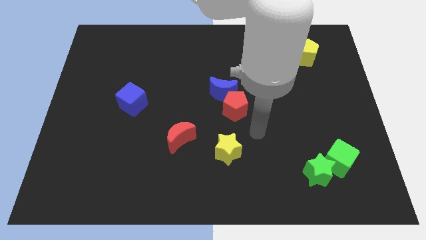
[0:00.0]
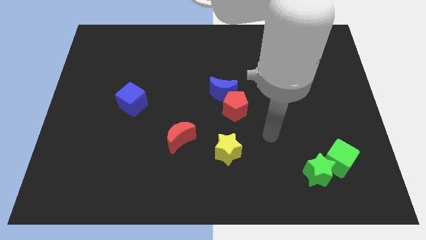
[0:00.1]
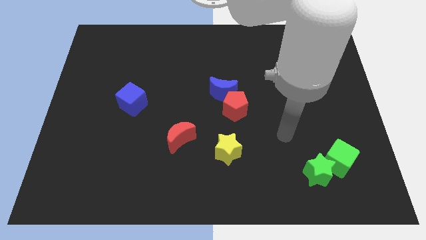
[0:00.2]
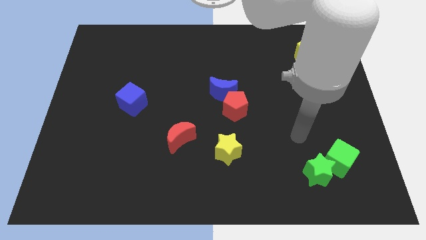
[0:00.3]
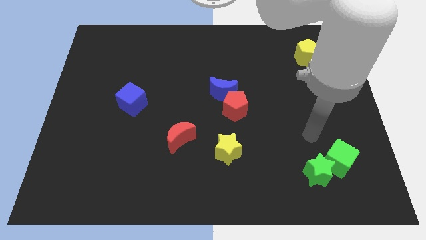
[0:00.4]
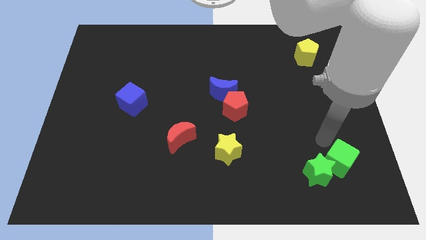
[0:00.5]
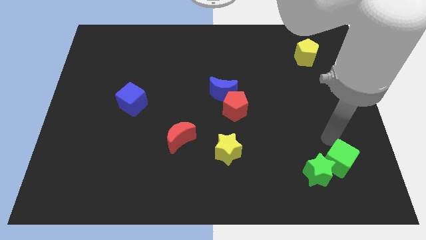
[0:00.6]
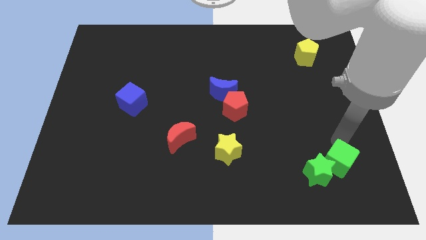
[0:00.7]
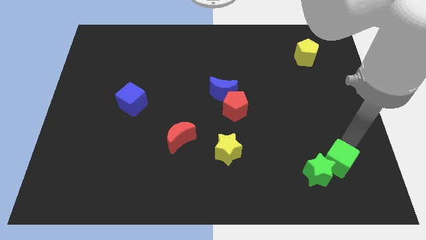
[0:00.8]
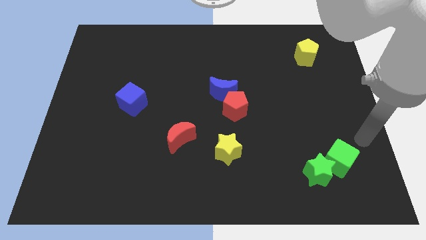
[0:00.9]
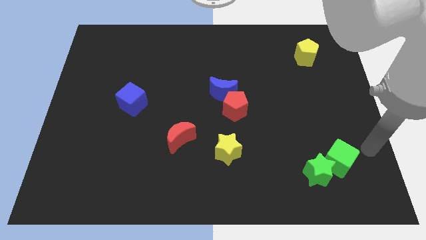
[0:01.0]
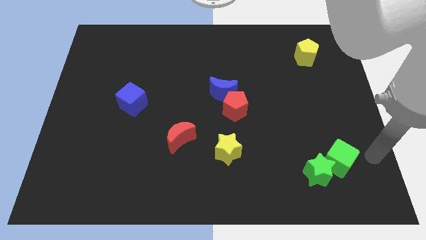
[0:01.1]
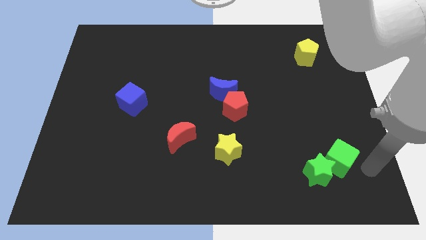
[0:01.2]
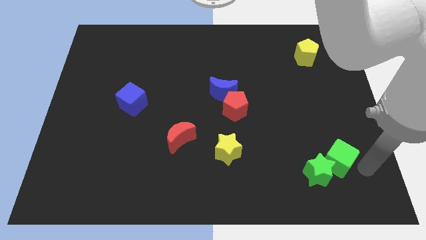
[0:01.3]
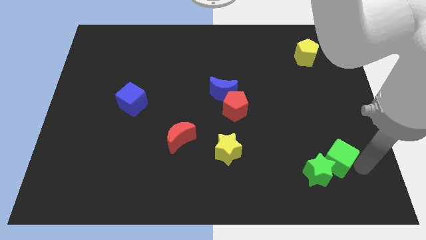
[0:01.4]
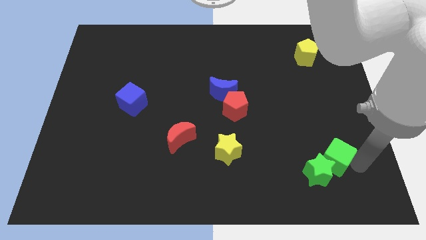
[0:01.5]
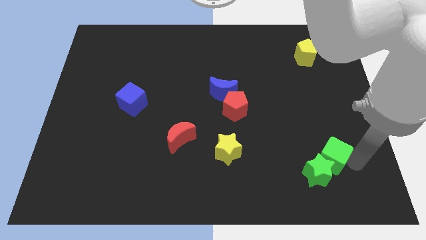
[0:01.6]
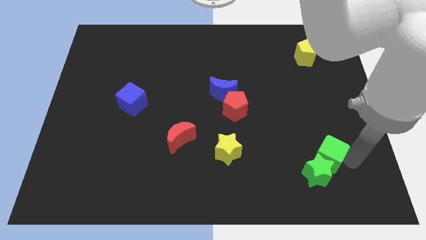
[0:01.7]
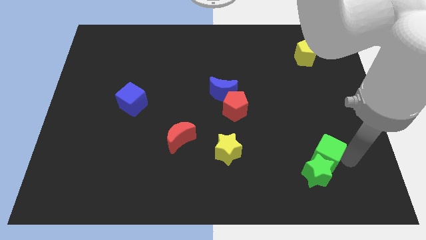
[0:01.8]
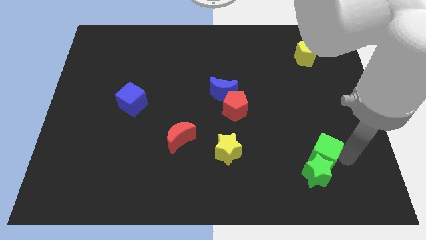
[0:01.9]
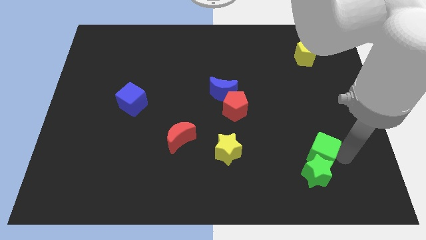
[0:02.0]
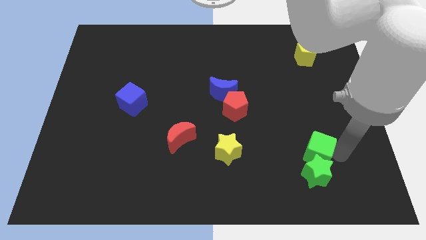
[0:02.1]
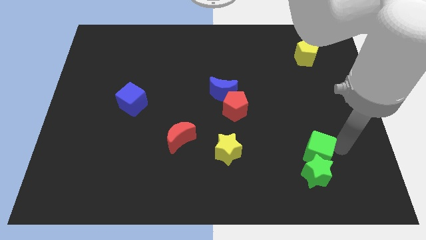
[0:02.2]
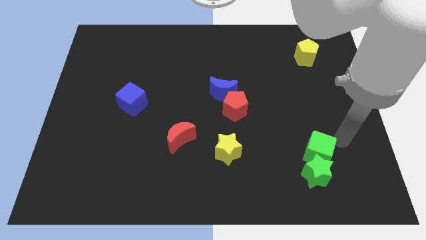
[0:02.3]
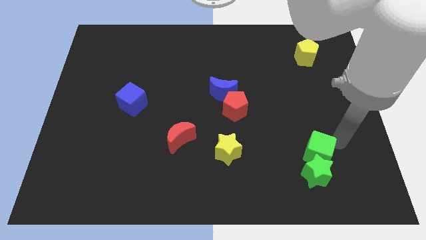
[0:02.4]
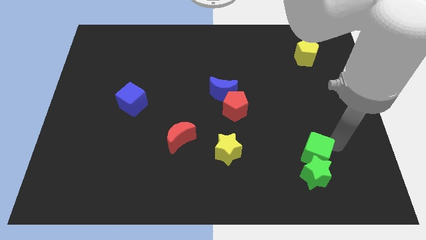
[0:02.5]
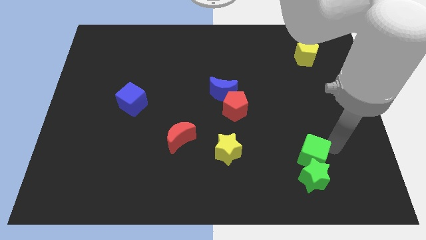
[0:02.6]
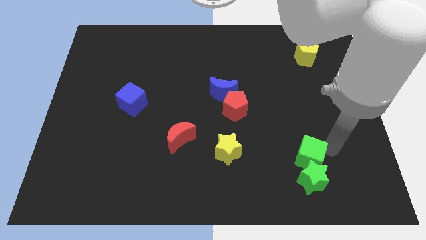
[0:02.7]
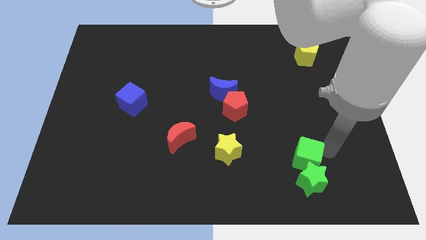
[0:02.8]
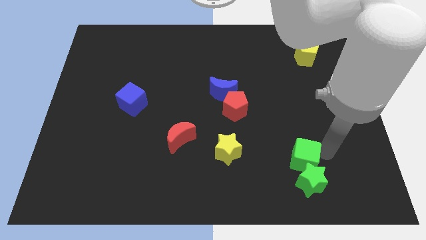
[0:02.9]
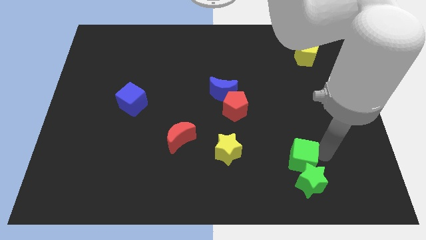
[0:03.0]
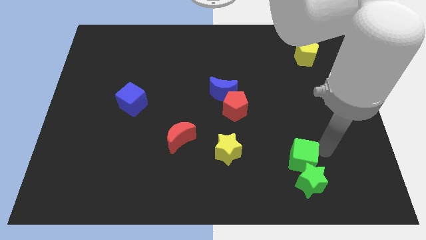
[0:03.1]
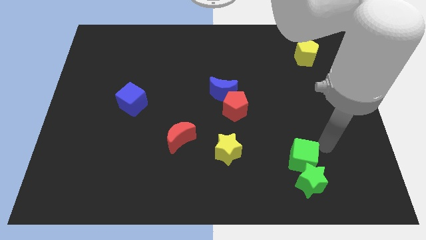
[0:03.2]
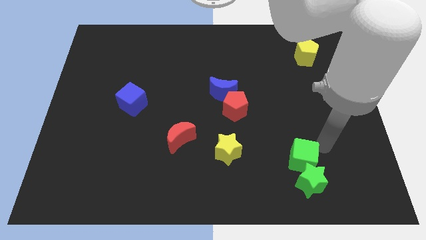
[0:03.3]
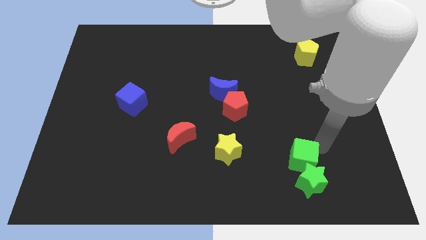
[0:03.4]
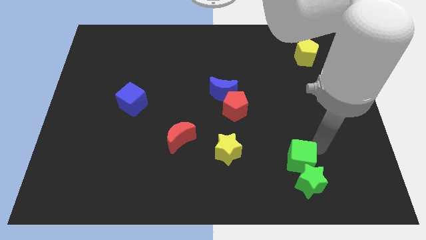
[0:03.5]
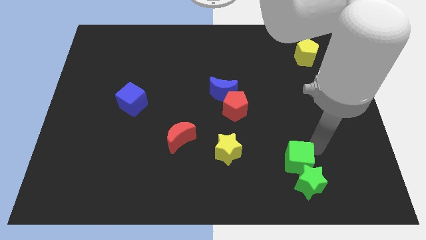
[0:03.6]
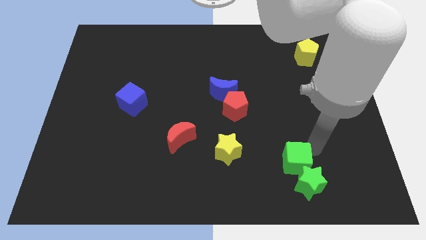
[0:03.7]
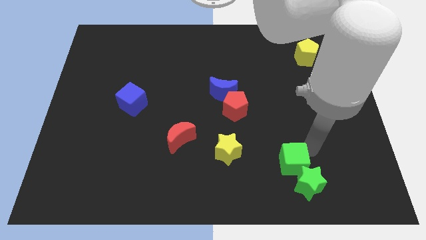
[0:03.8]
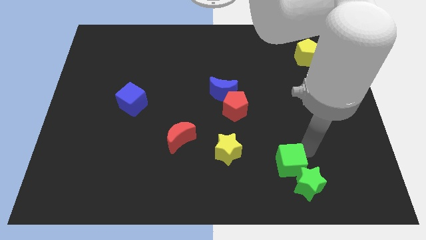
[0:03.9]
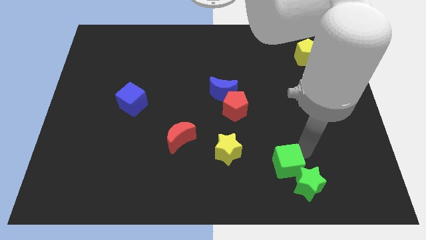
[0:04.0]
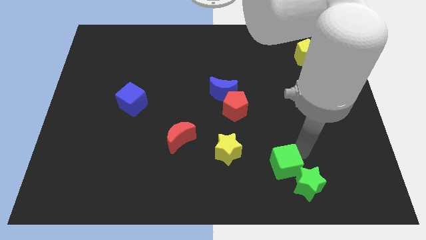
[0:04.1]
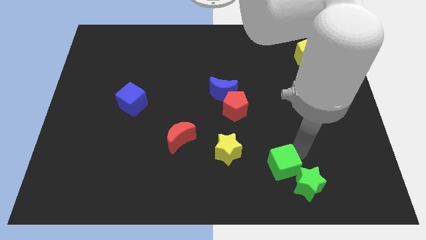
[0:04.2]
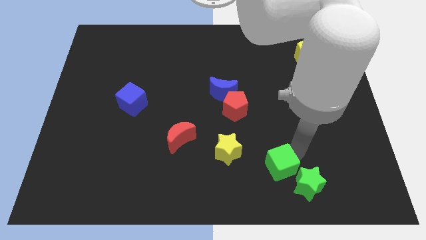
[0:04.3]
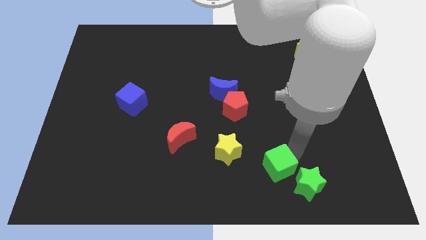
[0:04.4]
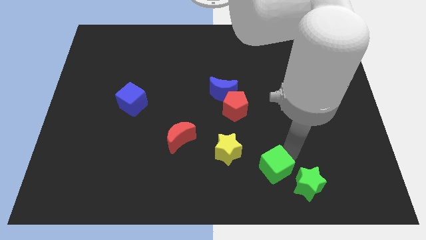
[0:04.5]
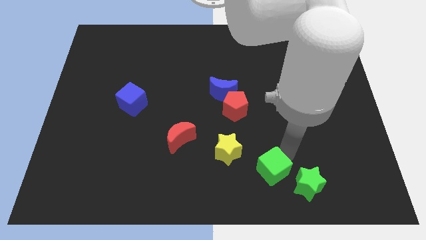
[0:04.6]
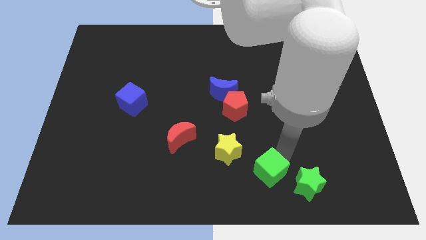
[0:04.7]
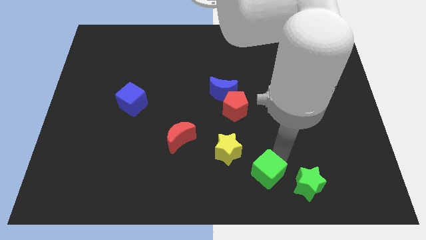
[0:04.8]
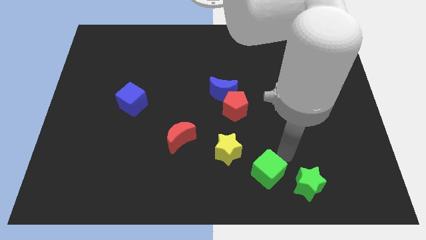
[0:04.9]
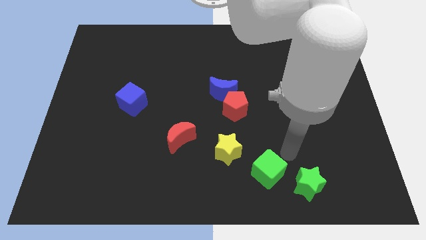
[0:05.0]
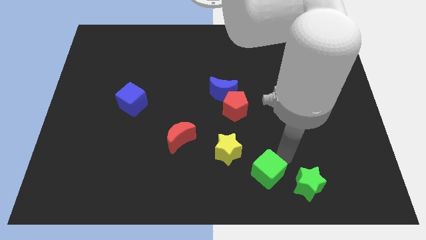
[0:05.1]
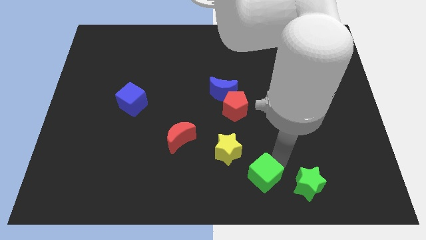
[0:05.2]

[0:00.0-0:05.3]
push the green cube to the bottom
